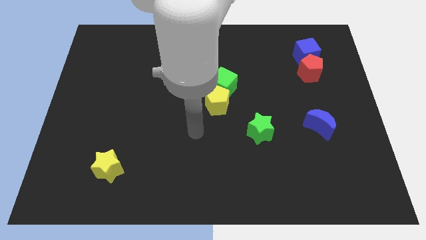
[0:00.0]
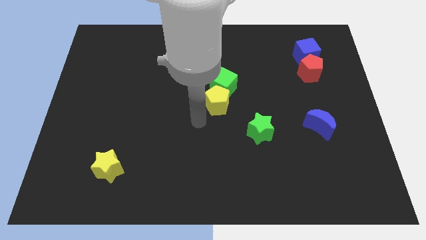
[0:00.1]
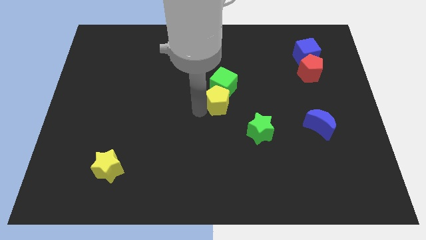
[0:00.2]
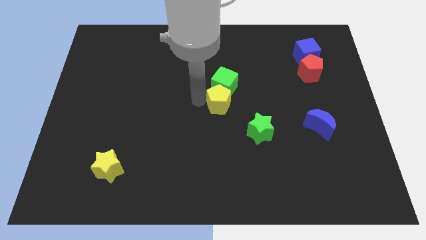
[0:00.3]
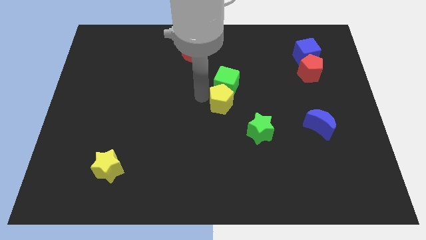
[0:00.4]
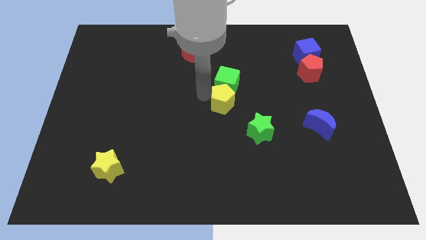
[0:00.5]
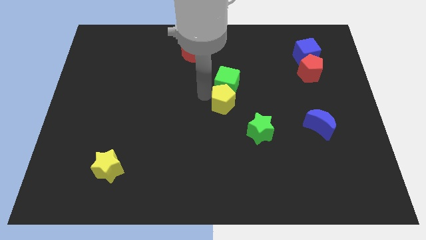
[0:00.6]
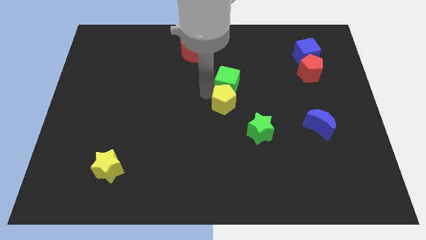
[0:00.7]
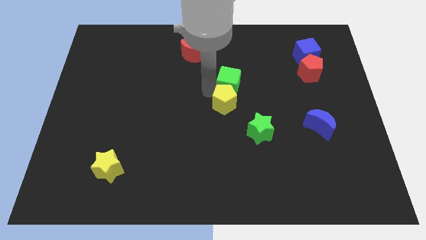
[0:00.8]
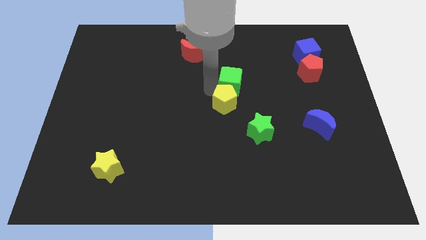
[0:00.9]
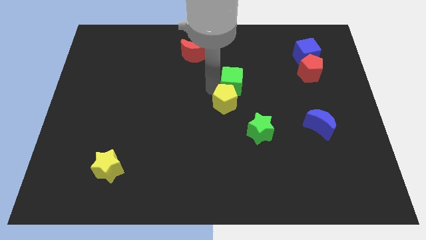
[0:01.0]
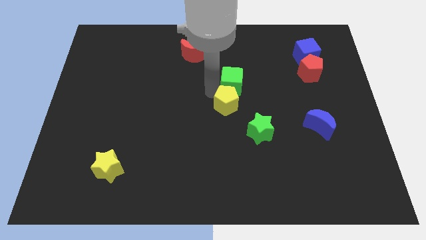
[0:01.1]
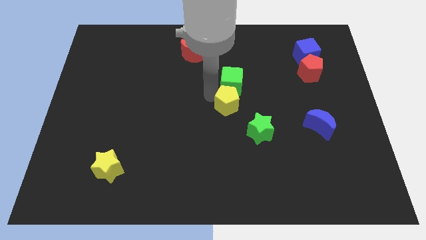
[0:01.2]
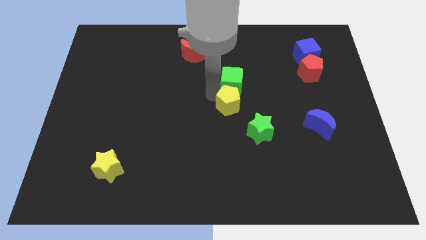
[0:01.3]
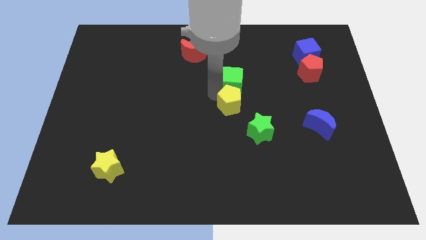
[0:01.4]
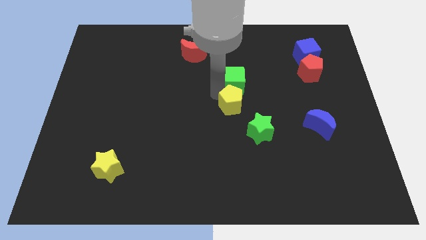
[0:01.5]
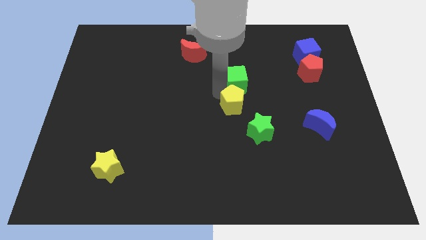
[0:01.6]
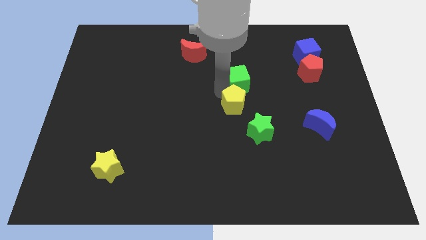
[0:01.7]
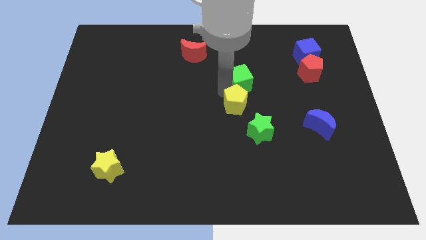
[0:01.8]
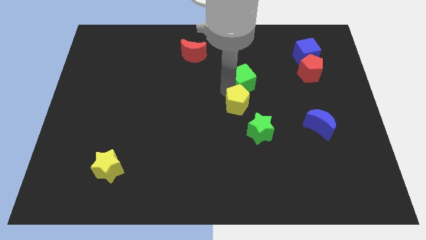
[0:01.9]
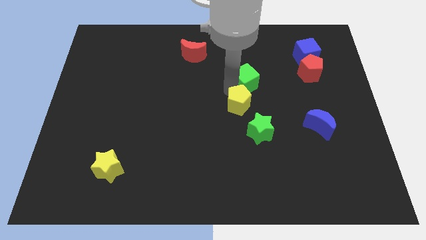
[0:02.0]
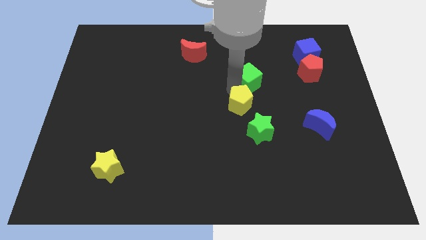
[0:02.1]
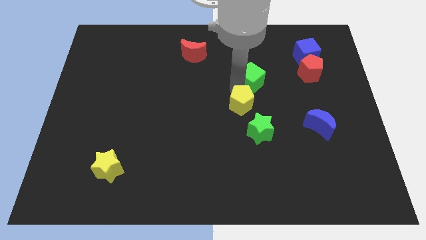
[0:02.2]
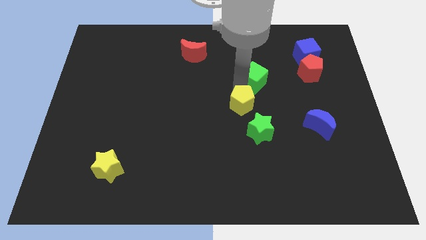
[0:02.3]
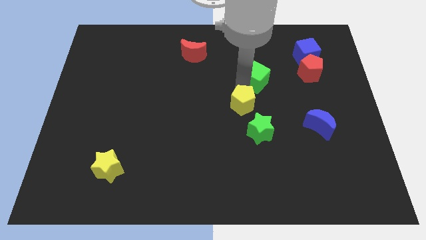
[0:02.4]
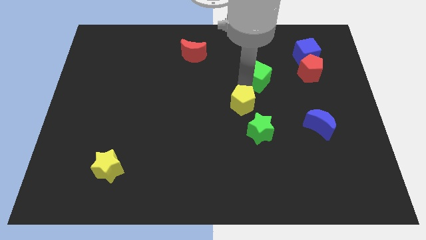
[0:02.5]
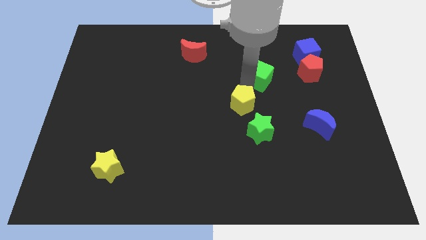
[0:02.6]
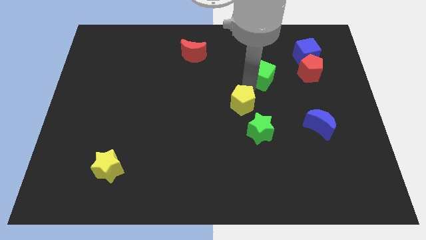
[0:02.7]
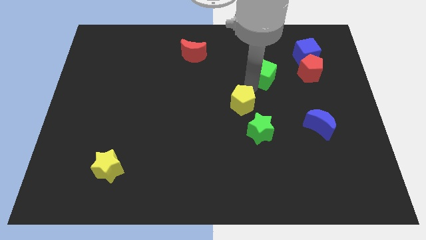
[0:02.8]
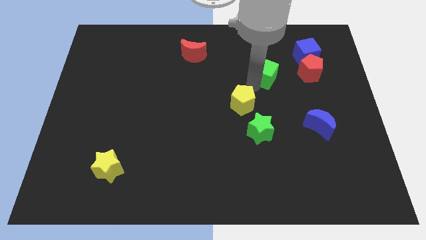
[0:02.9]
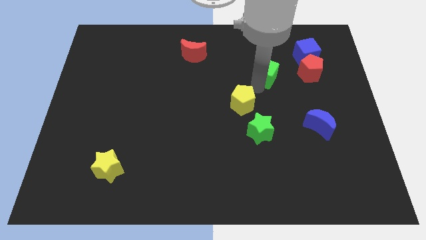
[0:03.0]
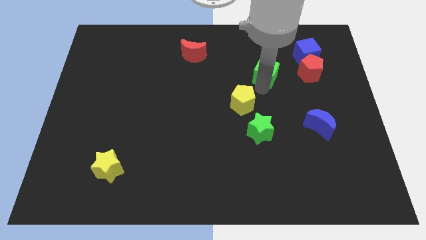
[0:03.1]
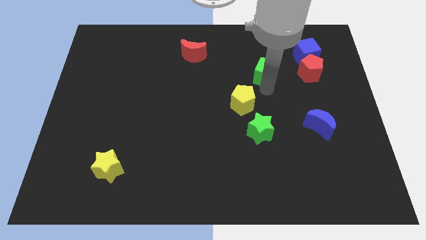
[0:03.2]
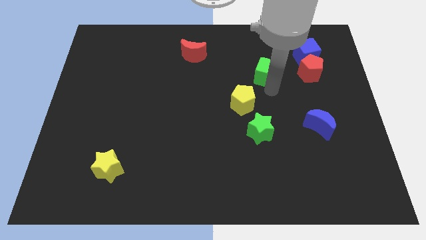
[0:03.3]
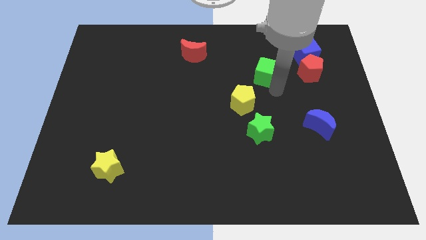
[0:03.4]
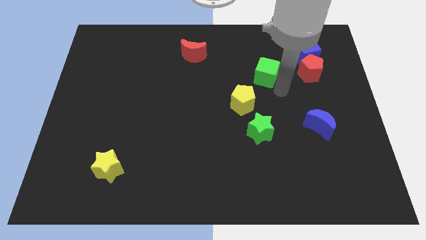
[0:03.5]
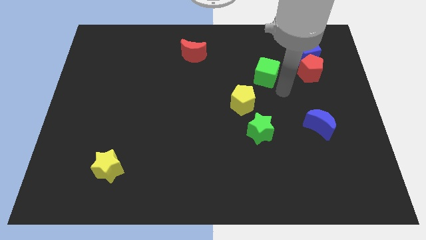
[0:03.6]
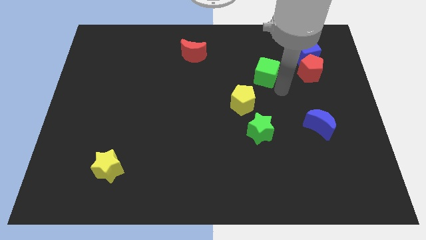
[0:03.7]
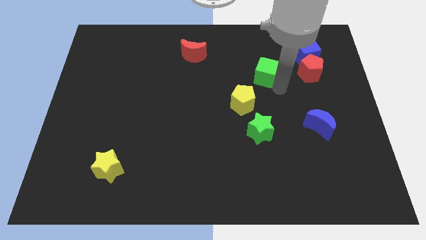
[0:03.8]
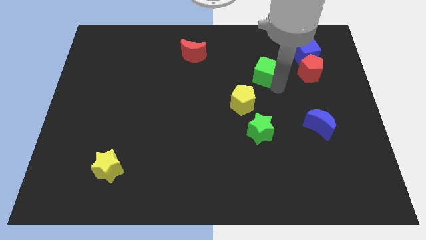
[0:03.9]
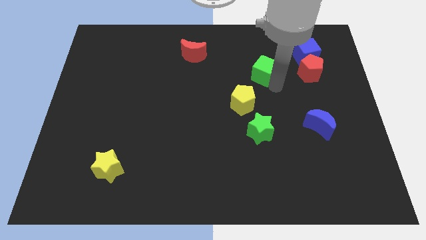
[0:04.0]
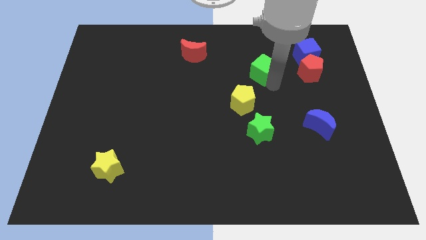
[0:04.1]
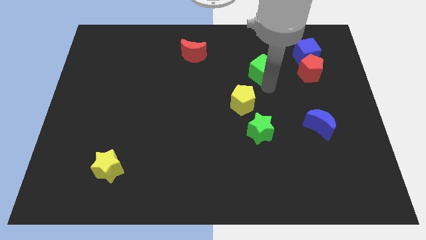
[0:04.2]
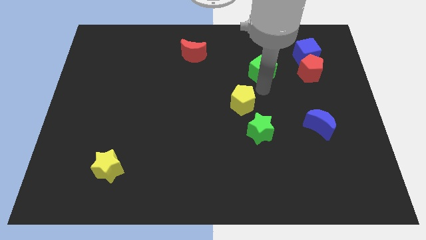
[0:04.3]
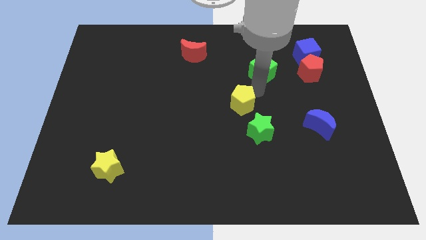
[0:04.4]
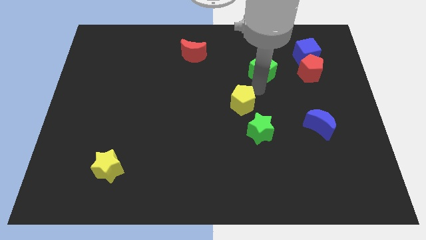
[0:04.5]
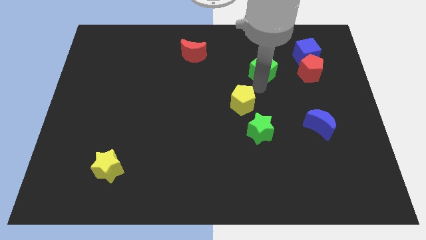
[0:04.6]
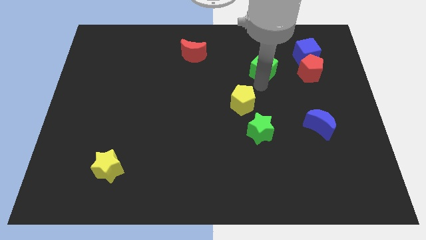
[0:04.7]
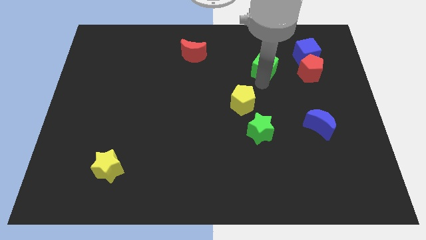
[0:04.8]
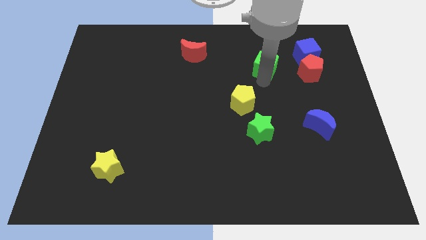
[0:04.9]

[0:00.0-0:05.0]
put the green cube just left of the blue cube

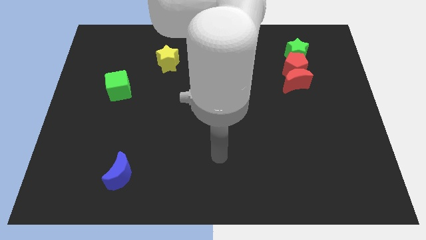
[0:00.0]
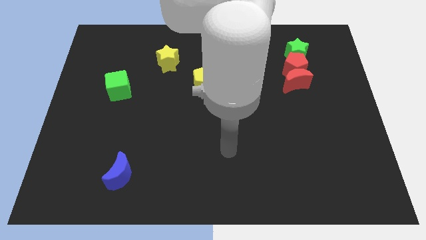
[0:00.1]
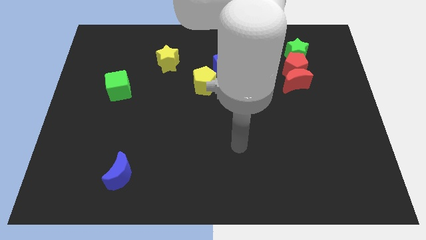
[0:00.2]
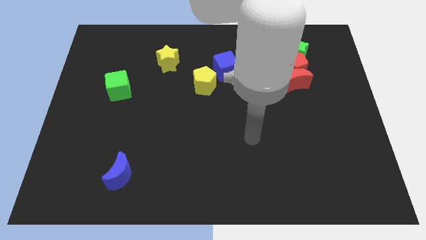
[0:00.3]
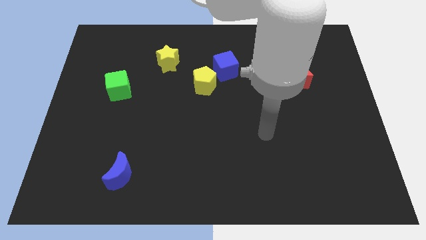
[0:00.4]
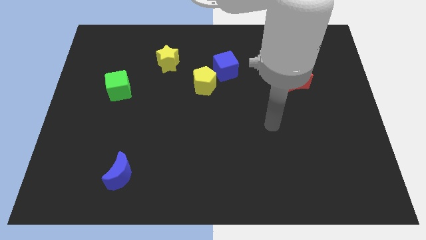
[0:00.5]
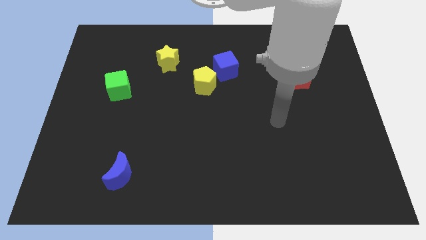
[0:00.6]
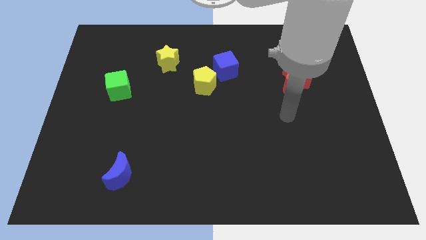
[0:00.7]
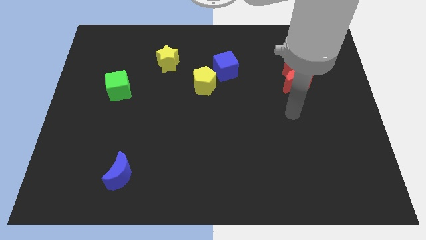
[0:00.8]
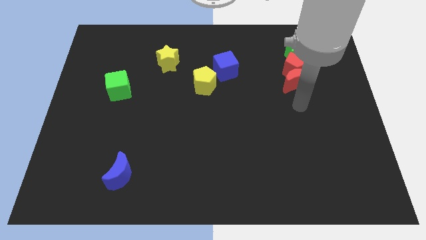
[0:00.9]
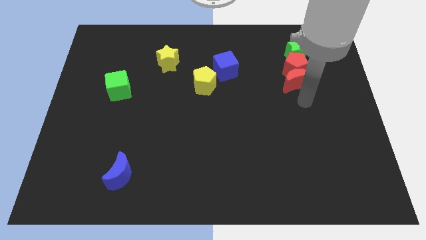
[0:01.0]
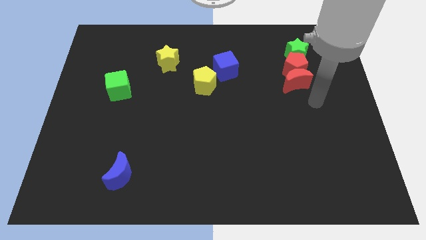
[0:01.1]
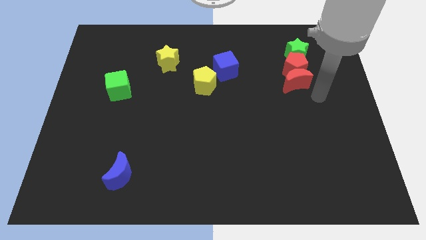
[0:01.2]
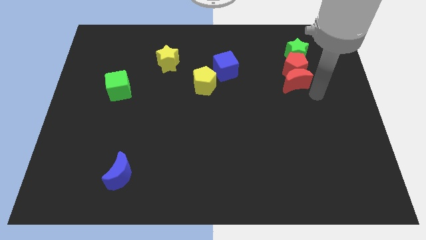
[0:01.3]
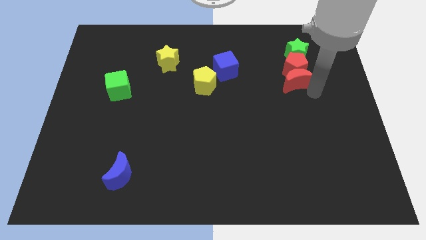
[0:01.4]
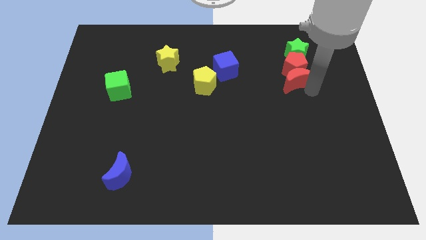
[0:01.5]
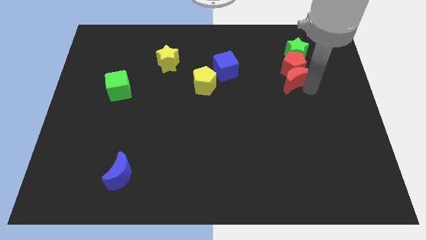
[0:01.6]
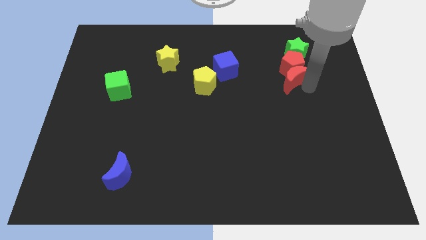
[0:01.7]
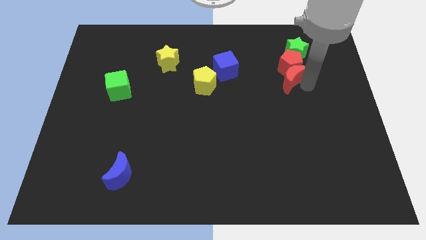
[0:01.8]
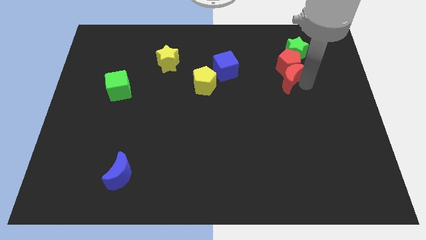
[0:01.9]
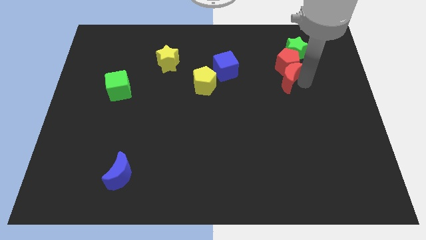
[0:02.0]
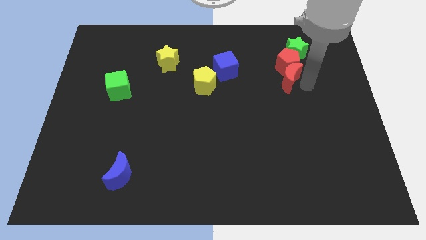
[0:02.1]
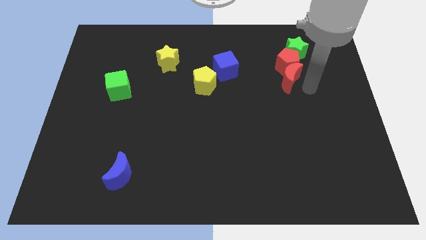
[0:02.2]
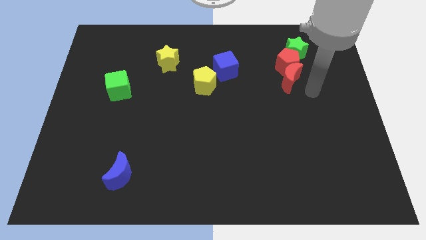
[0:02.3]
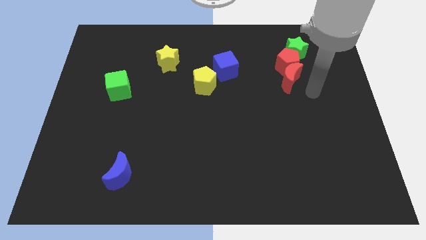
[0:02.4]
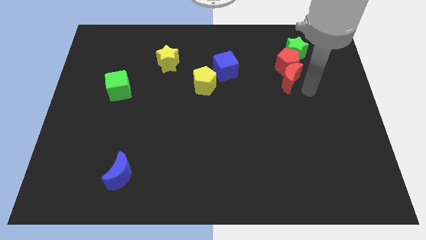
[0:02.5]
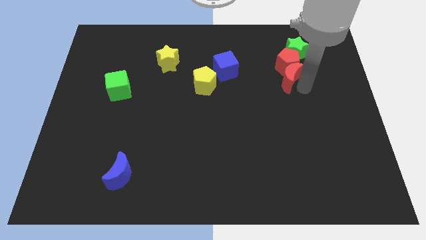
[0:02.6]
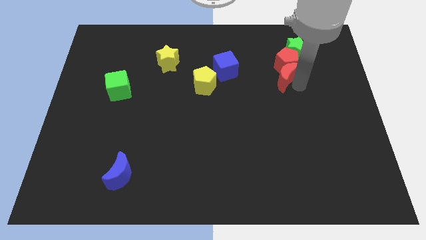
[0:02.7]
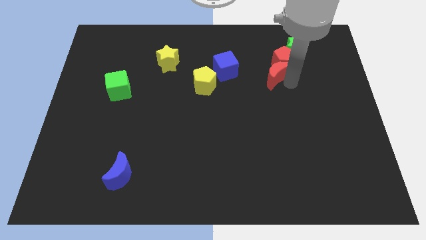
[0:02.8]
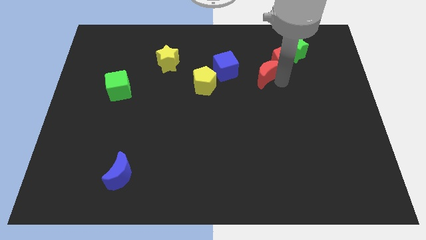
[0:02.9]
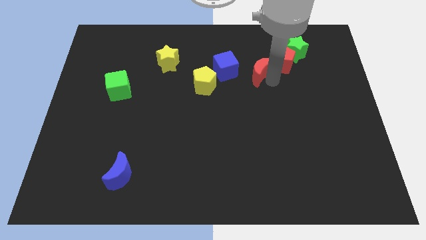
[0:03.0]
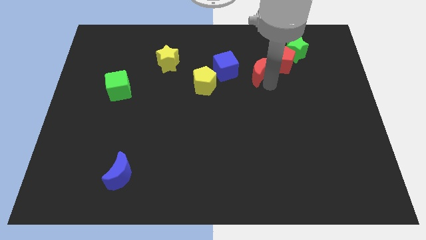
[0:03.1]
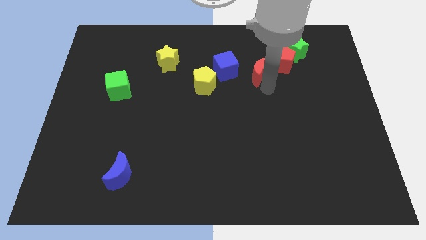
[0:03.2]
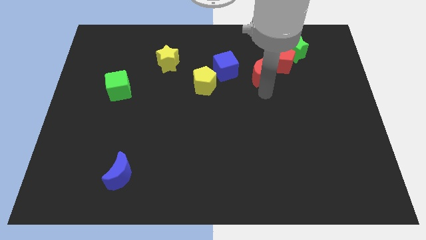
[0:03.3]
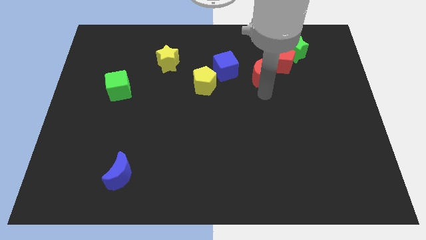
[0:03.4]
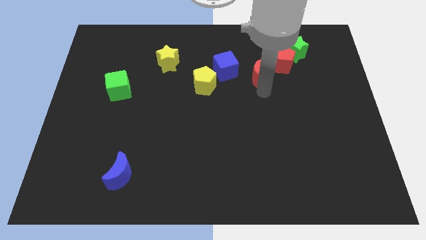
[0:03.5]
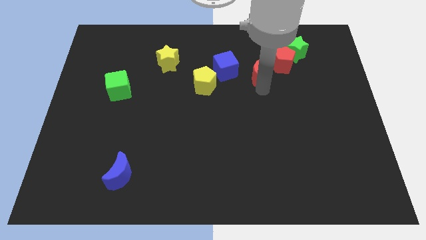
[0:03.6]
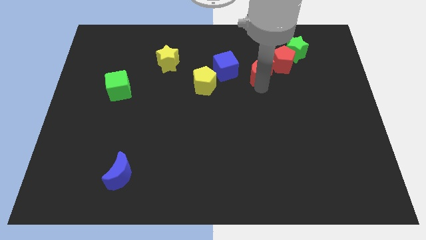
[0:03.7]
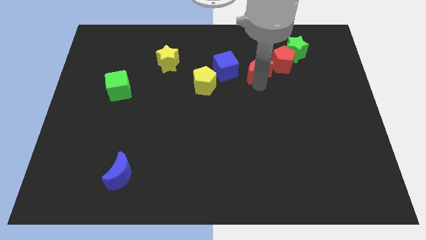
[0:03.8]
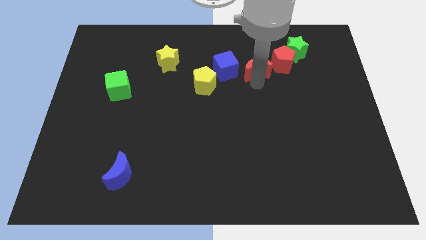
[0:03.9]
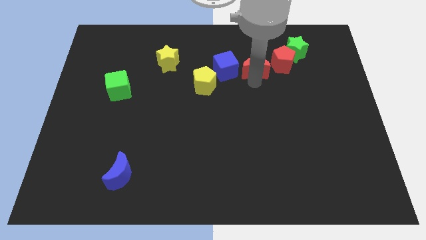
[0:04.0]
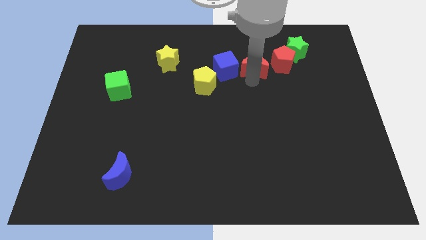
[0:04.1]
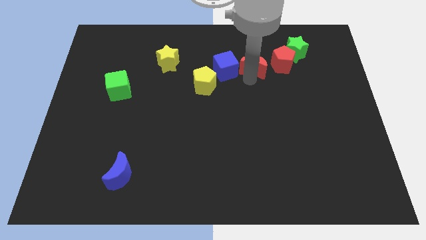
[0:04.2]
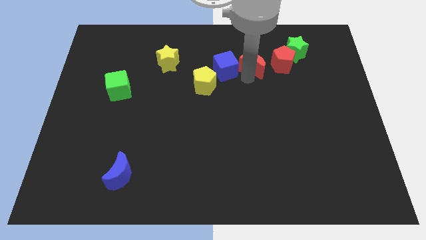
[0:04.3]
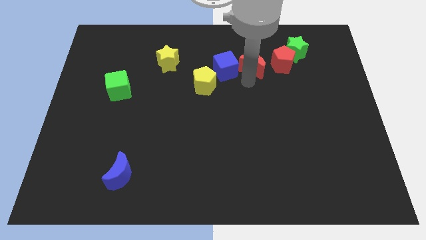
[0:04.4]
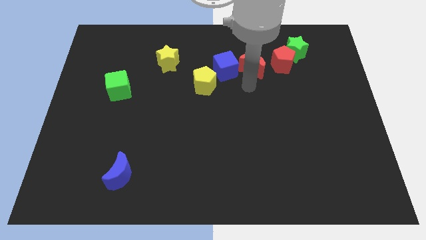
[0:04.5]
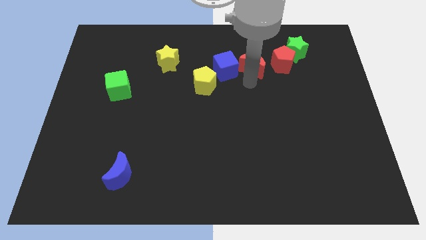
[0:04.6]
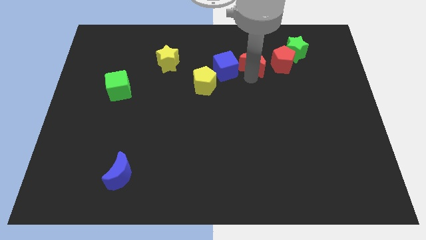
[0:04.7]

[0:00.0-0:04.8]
move the red moon to the left side of the green star
